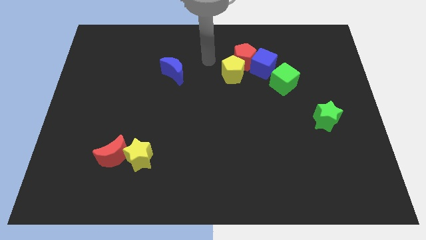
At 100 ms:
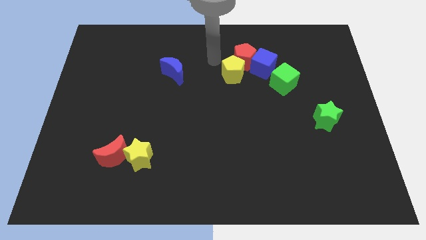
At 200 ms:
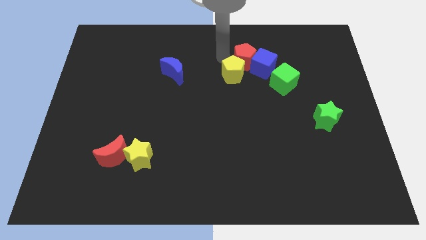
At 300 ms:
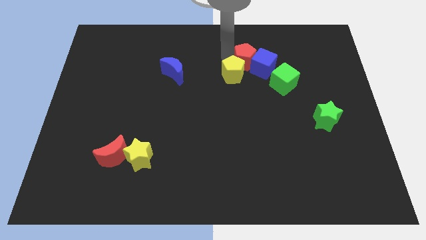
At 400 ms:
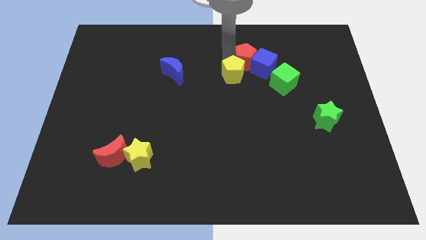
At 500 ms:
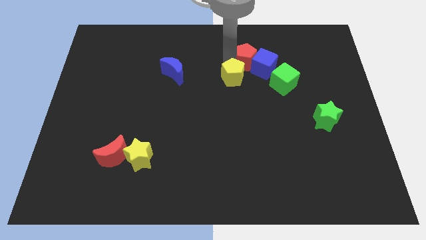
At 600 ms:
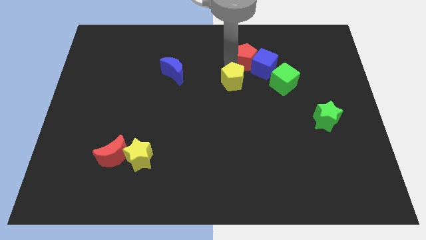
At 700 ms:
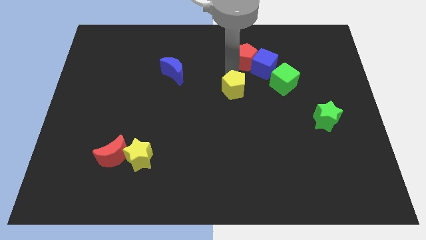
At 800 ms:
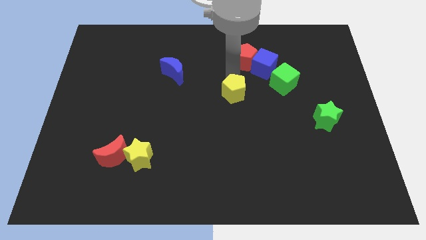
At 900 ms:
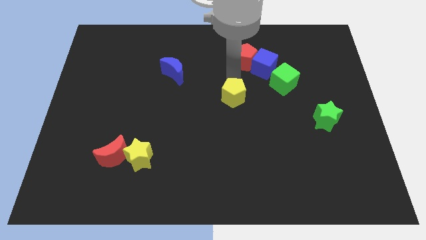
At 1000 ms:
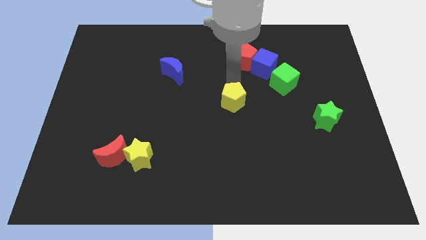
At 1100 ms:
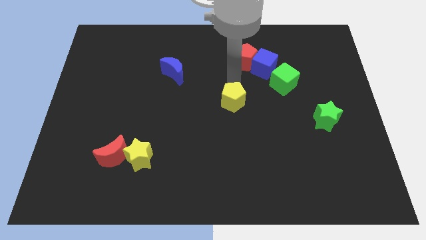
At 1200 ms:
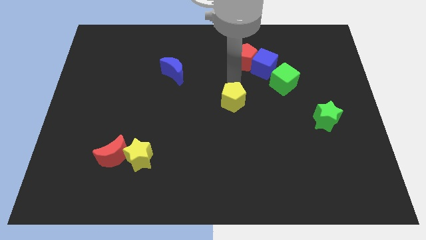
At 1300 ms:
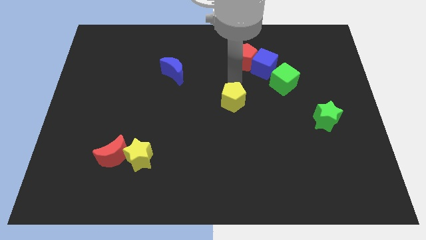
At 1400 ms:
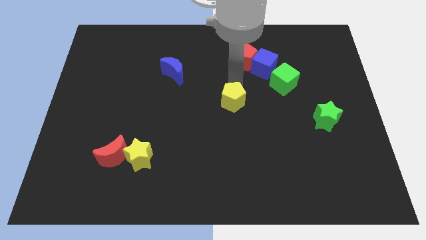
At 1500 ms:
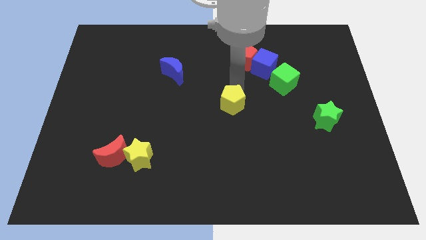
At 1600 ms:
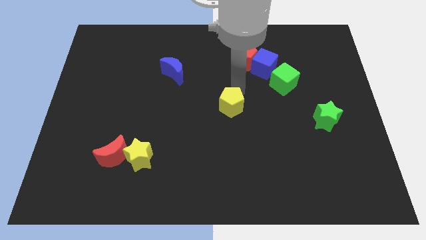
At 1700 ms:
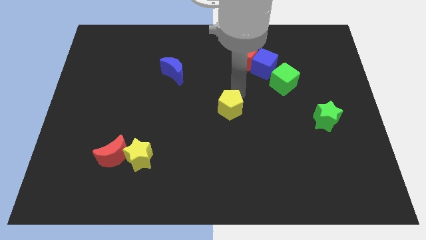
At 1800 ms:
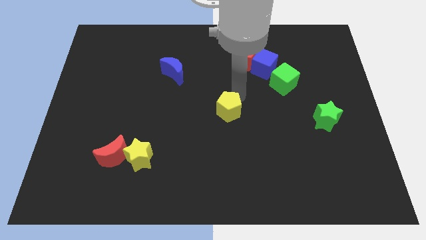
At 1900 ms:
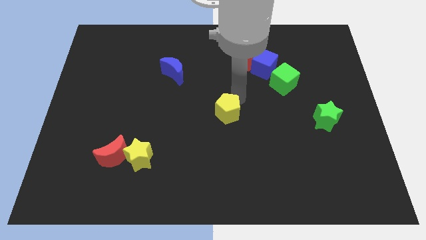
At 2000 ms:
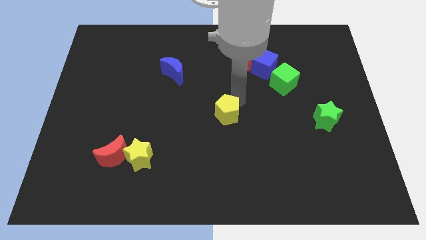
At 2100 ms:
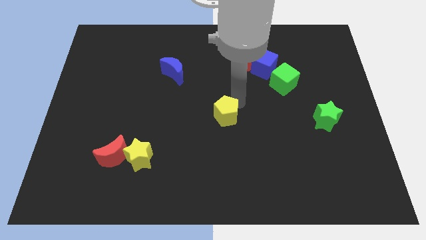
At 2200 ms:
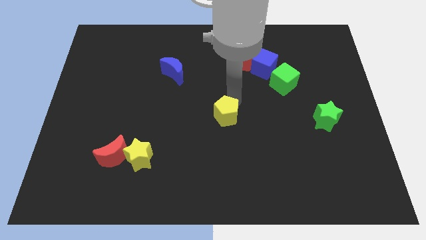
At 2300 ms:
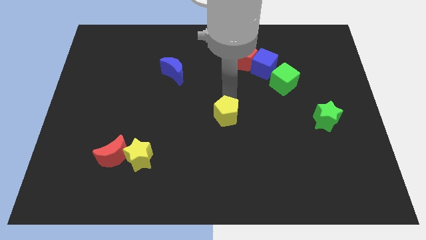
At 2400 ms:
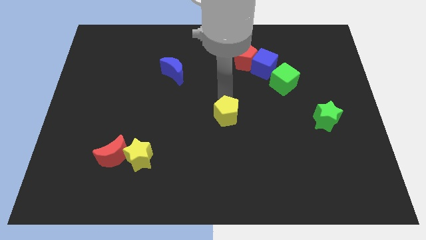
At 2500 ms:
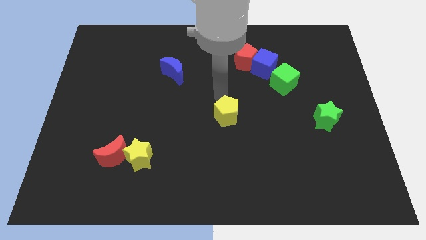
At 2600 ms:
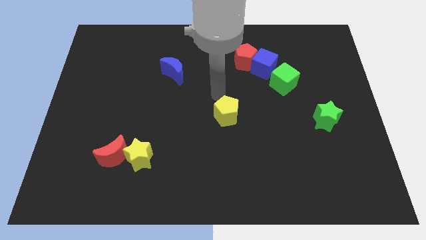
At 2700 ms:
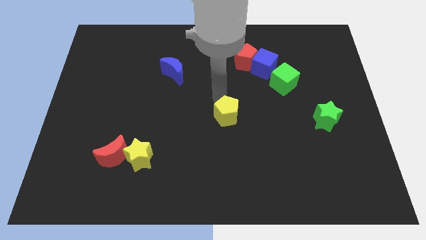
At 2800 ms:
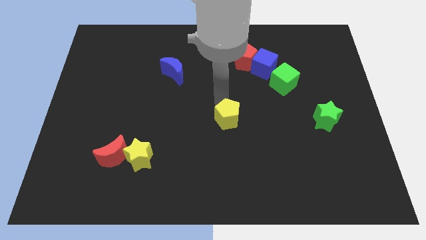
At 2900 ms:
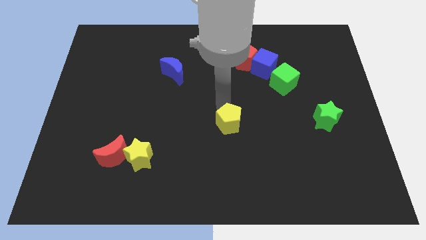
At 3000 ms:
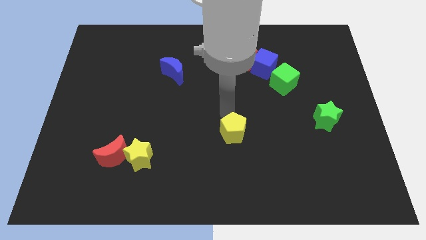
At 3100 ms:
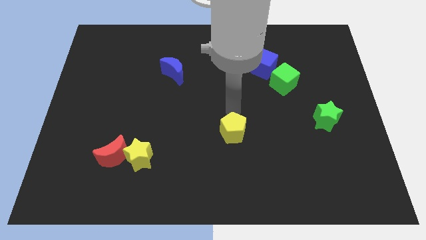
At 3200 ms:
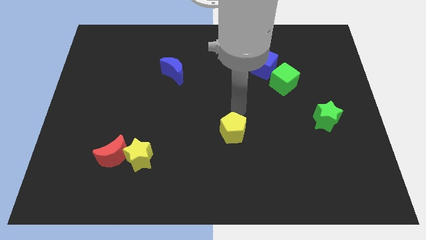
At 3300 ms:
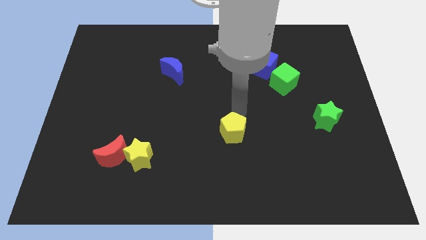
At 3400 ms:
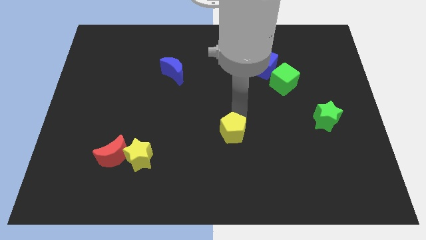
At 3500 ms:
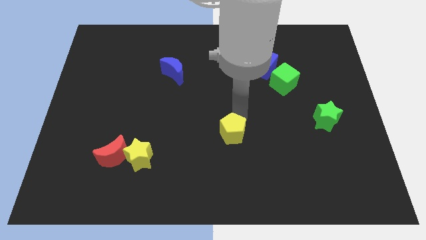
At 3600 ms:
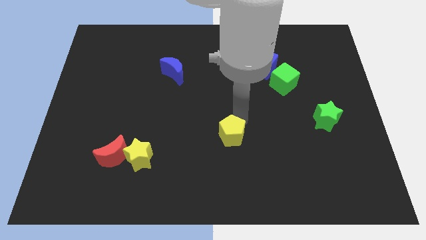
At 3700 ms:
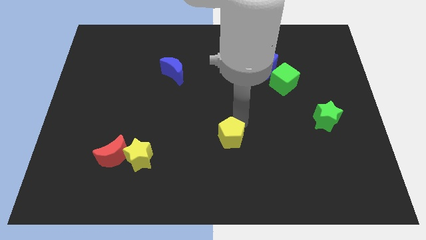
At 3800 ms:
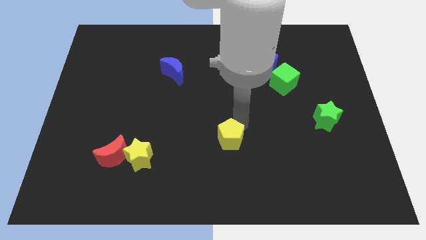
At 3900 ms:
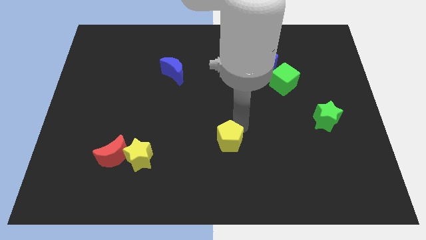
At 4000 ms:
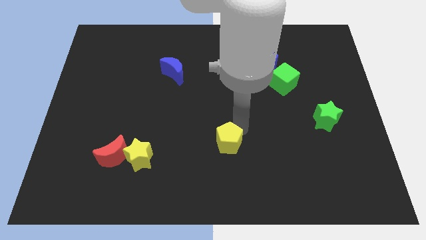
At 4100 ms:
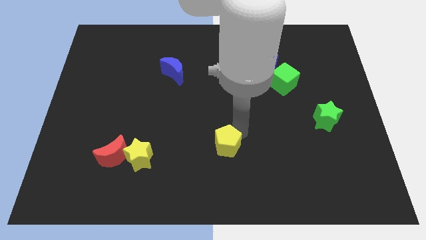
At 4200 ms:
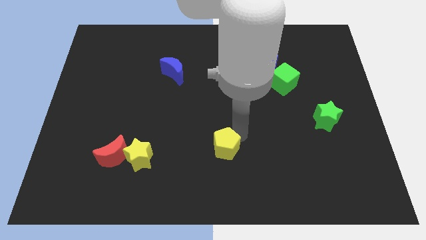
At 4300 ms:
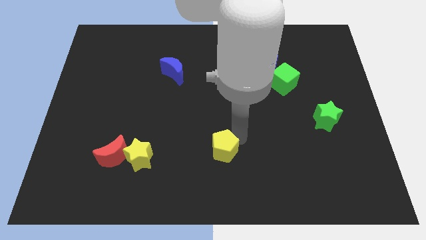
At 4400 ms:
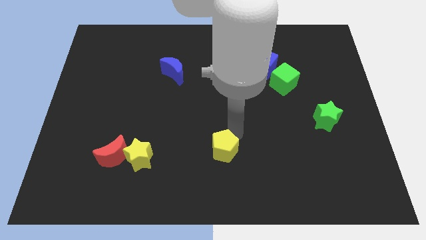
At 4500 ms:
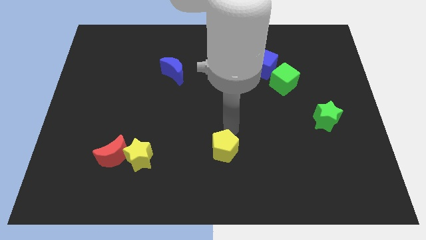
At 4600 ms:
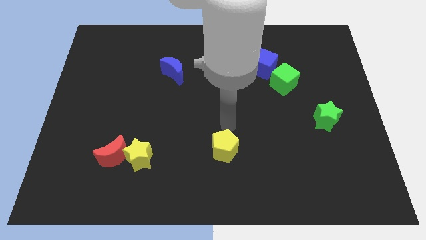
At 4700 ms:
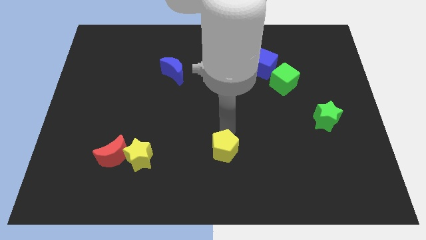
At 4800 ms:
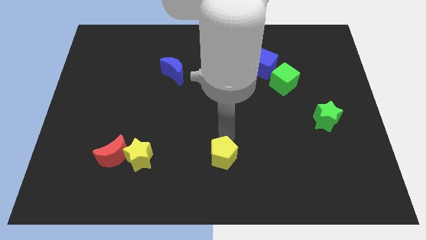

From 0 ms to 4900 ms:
push the yellow pentagon to the bottom side

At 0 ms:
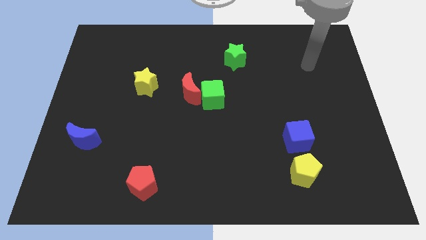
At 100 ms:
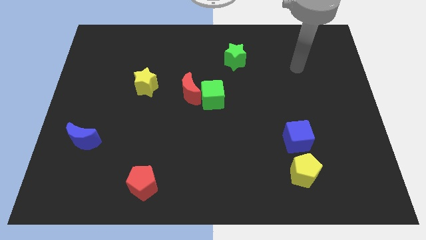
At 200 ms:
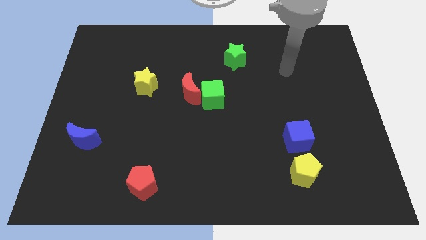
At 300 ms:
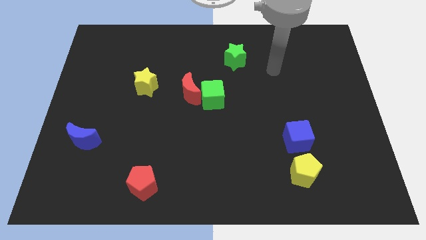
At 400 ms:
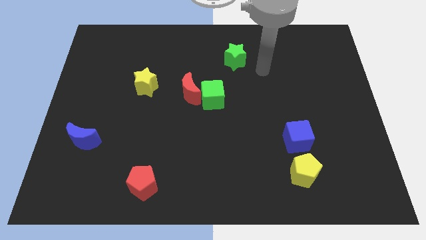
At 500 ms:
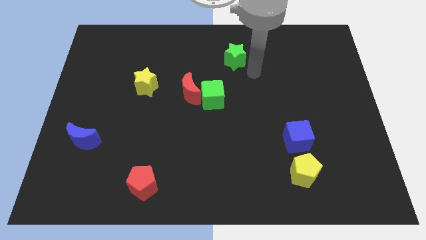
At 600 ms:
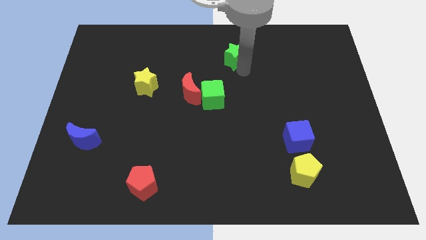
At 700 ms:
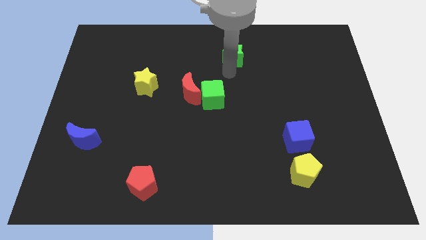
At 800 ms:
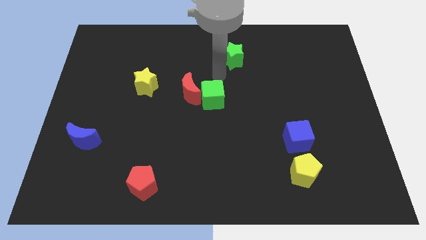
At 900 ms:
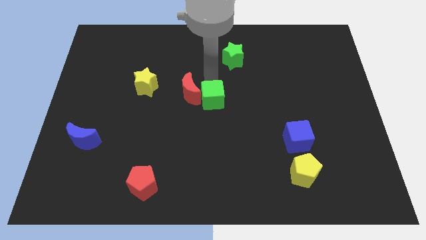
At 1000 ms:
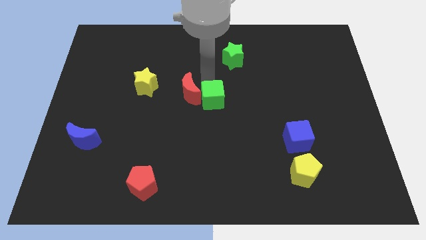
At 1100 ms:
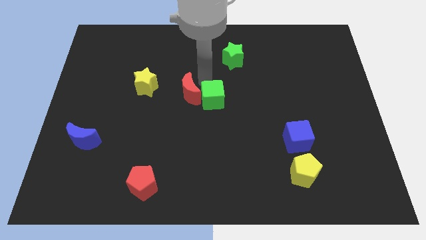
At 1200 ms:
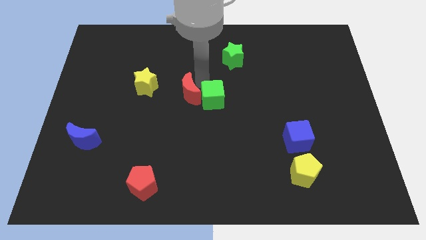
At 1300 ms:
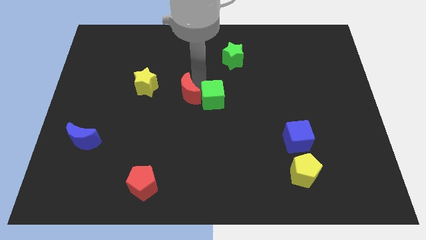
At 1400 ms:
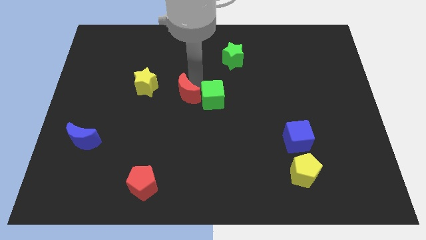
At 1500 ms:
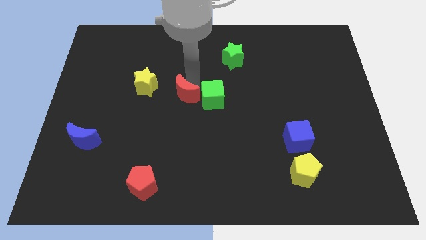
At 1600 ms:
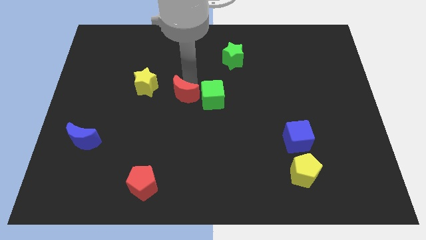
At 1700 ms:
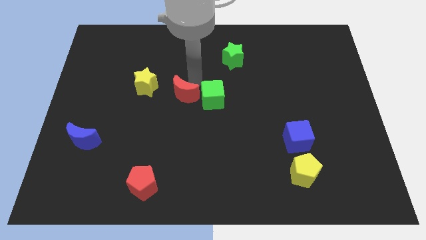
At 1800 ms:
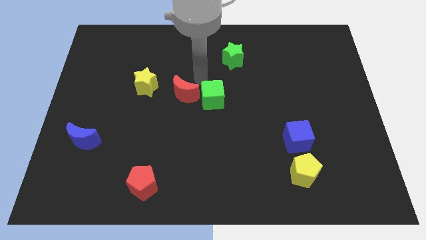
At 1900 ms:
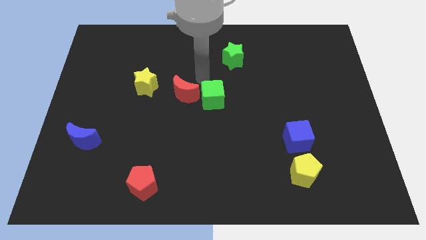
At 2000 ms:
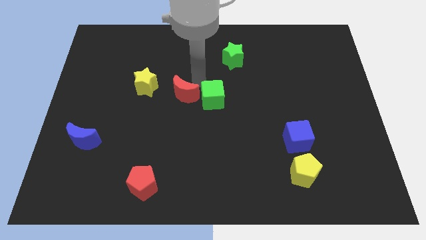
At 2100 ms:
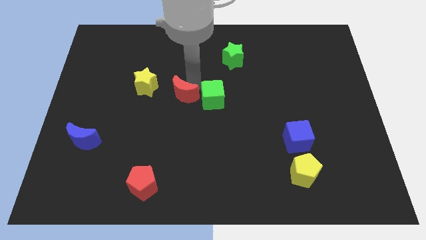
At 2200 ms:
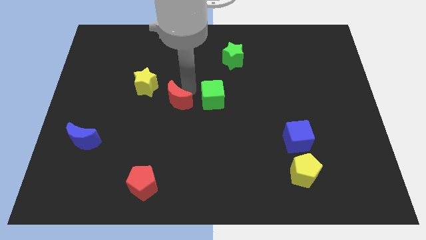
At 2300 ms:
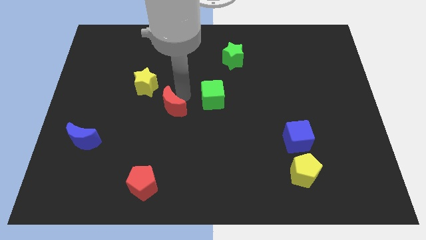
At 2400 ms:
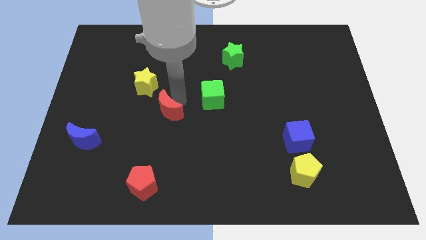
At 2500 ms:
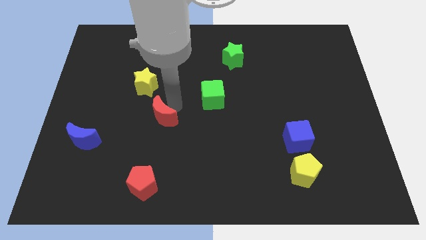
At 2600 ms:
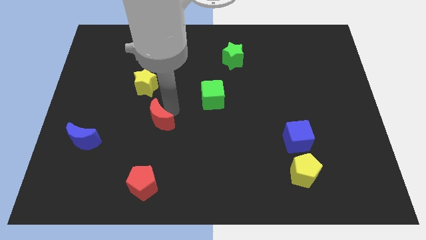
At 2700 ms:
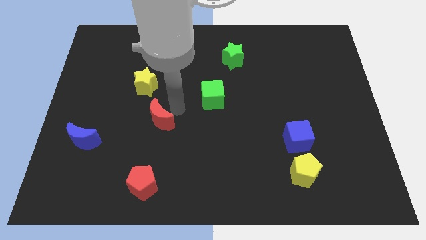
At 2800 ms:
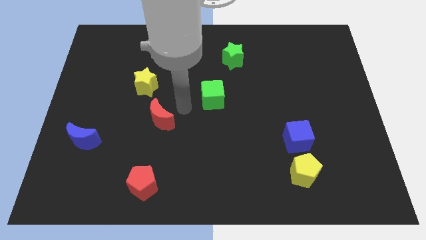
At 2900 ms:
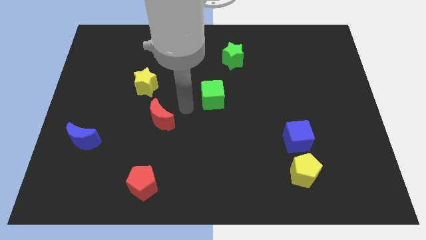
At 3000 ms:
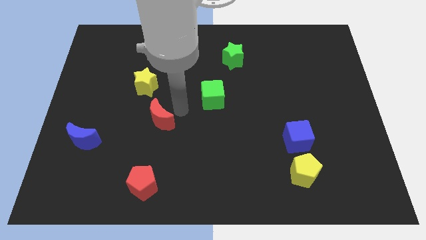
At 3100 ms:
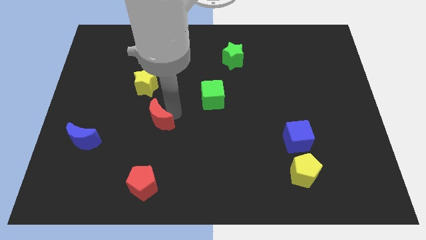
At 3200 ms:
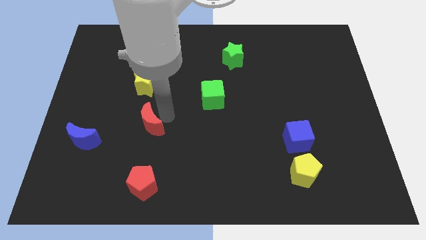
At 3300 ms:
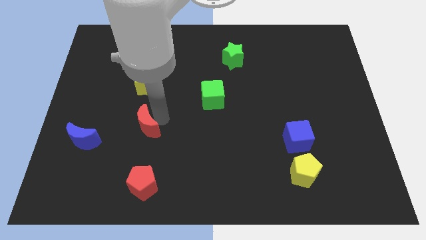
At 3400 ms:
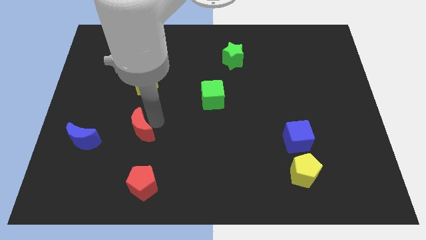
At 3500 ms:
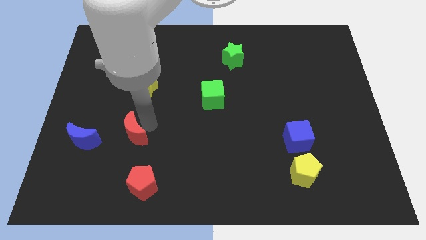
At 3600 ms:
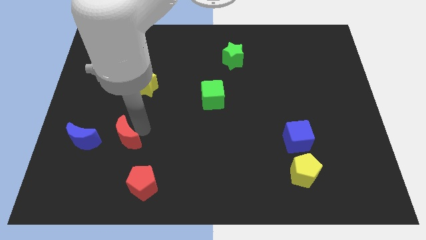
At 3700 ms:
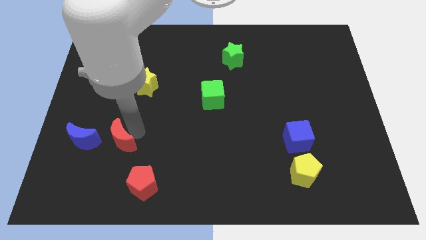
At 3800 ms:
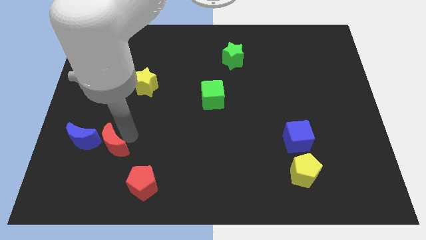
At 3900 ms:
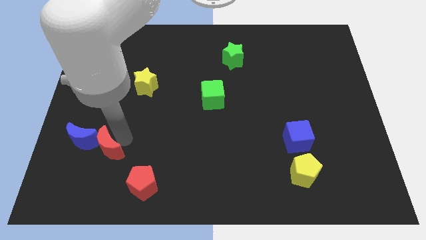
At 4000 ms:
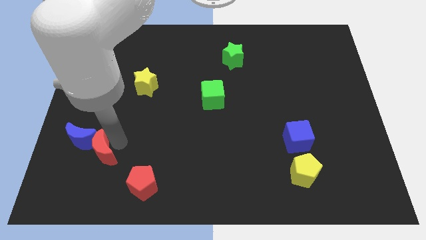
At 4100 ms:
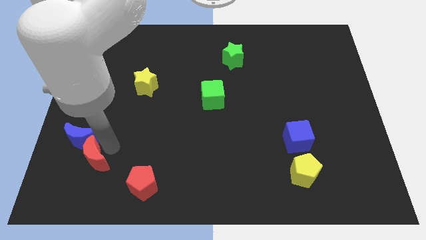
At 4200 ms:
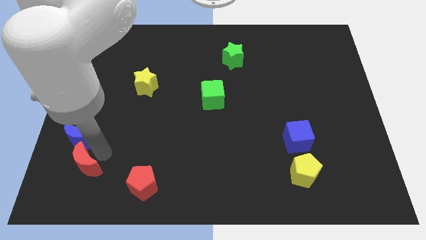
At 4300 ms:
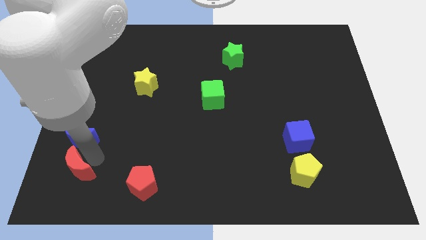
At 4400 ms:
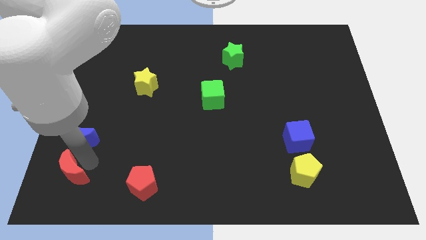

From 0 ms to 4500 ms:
slide the red moon to the lower left corner
